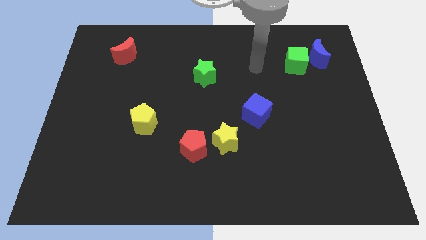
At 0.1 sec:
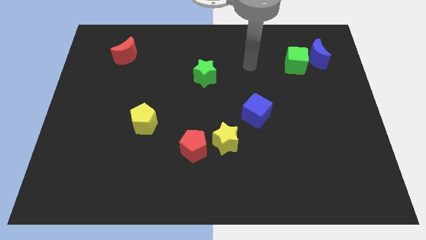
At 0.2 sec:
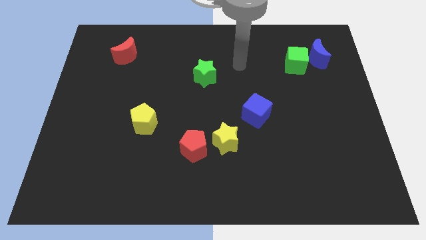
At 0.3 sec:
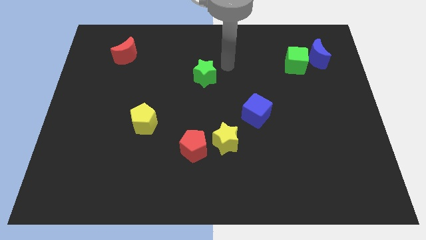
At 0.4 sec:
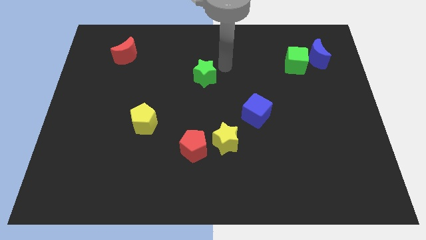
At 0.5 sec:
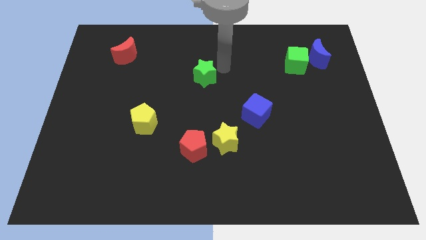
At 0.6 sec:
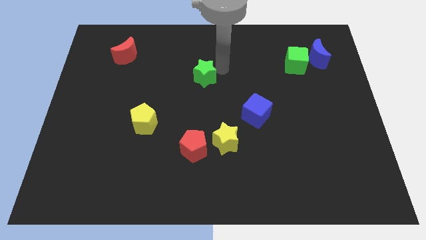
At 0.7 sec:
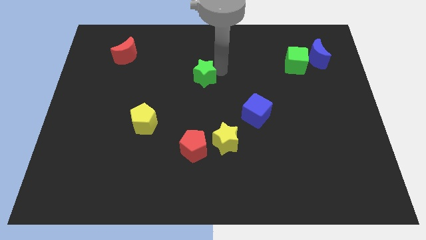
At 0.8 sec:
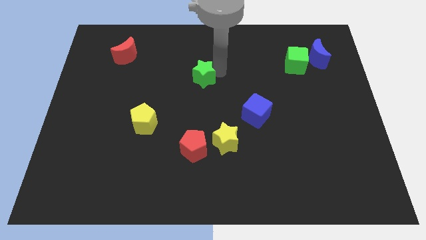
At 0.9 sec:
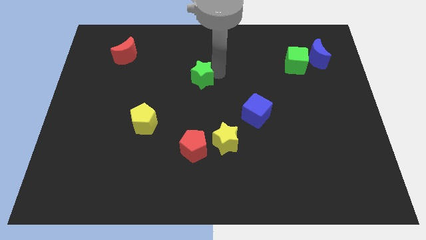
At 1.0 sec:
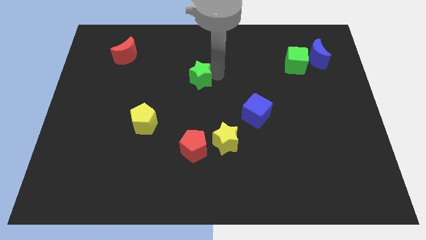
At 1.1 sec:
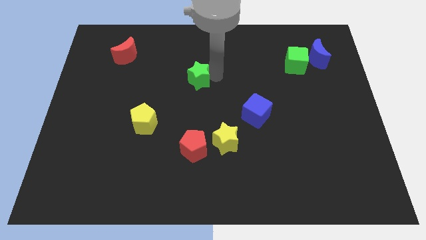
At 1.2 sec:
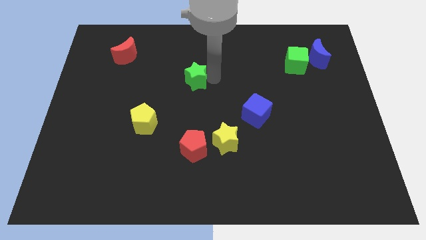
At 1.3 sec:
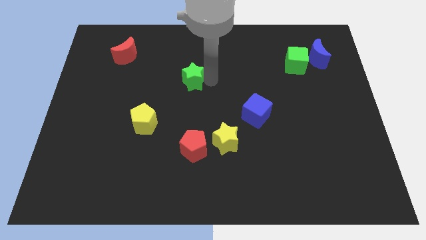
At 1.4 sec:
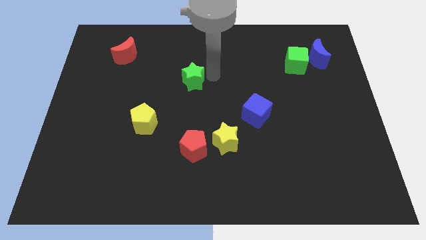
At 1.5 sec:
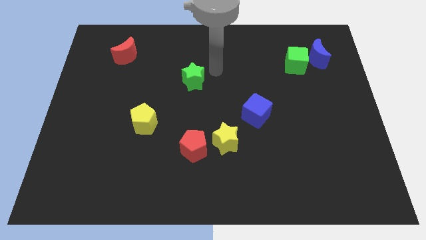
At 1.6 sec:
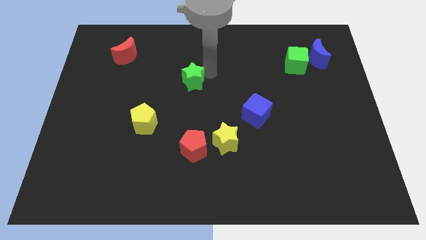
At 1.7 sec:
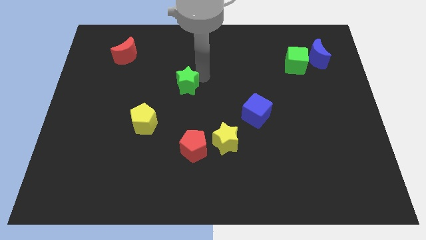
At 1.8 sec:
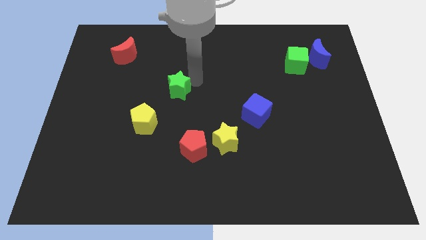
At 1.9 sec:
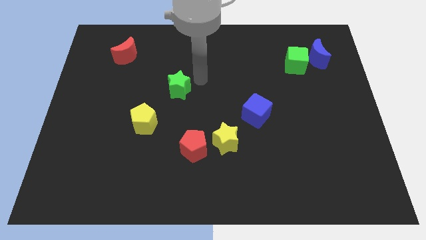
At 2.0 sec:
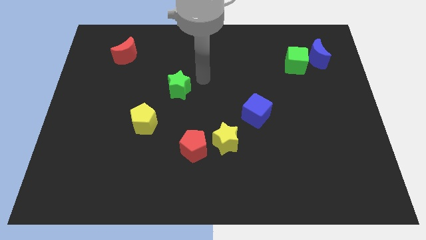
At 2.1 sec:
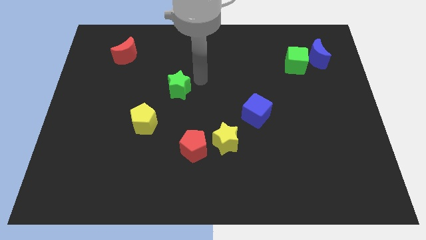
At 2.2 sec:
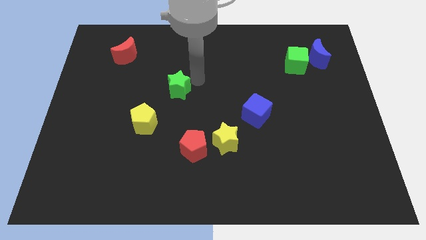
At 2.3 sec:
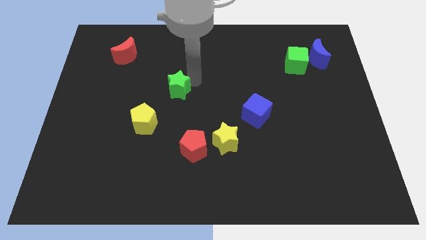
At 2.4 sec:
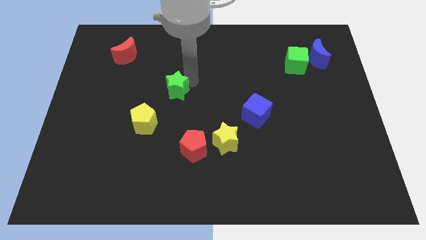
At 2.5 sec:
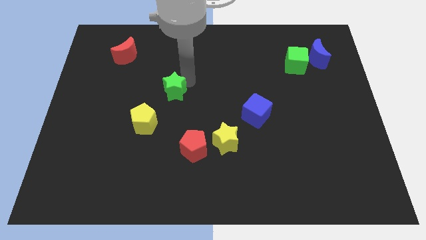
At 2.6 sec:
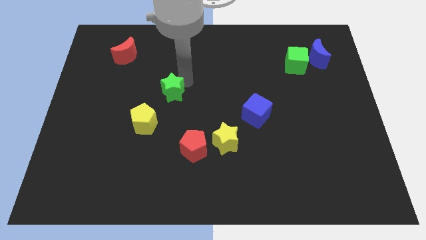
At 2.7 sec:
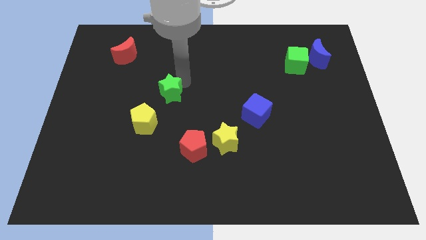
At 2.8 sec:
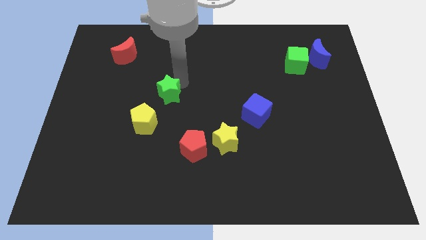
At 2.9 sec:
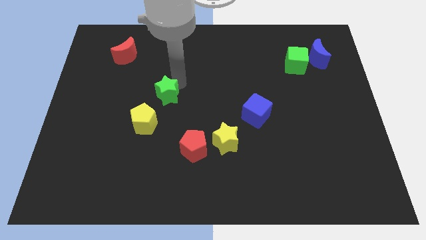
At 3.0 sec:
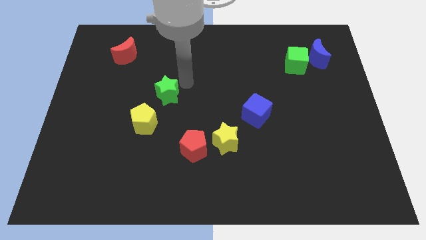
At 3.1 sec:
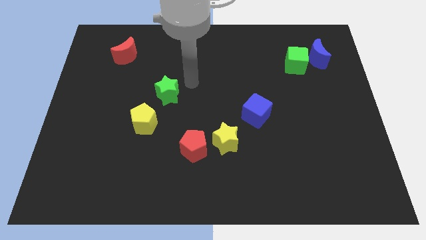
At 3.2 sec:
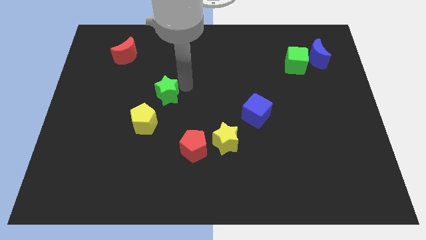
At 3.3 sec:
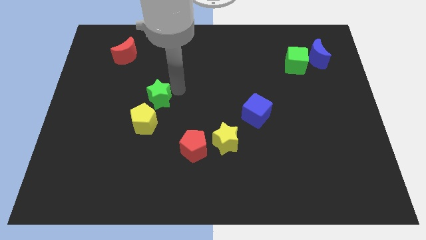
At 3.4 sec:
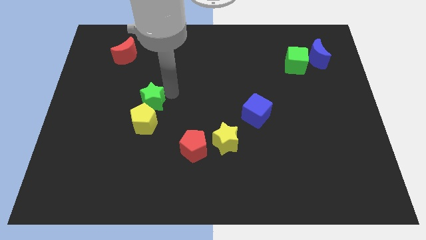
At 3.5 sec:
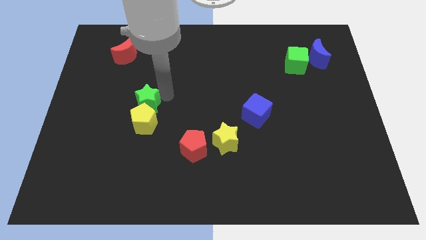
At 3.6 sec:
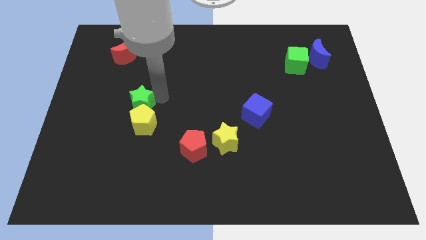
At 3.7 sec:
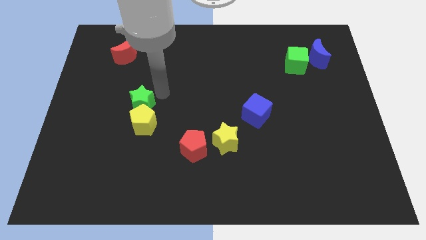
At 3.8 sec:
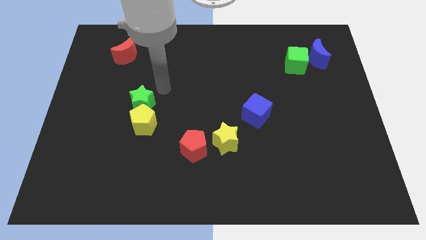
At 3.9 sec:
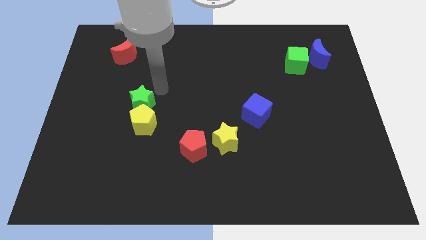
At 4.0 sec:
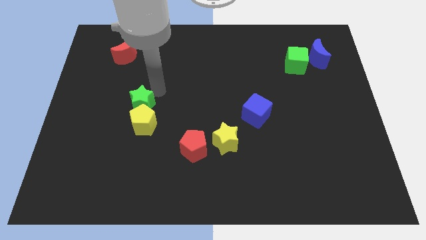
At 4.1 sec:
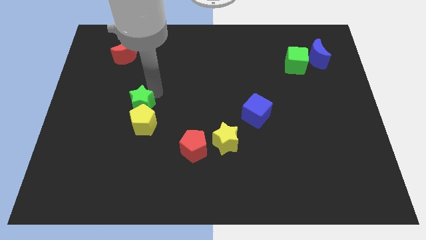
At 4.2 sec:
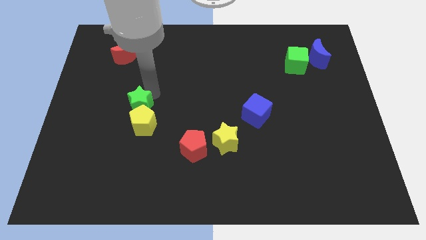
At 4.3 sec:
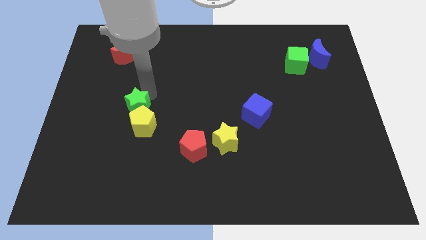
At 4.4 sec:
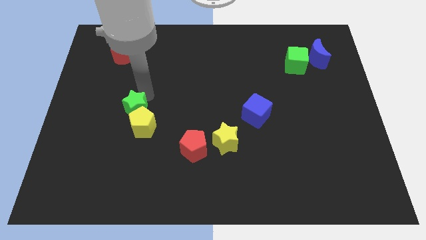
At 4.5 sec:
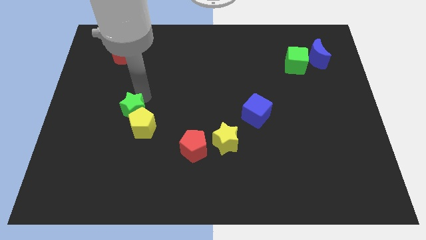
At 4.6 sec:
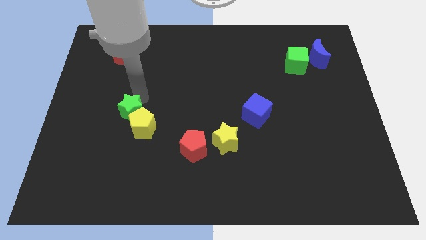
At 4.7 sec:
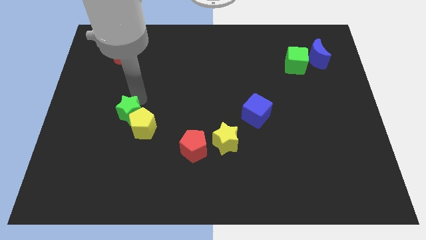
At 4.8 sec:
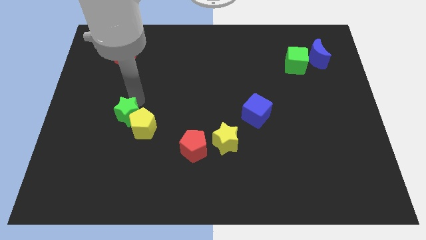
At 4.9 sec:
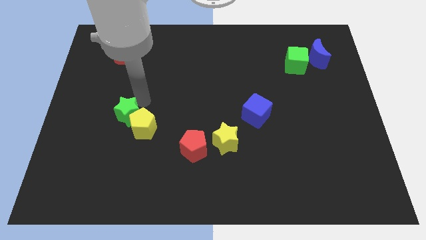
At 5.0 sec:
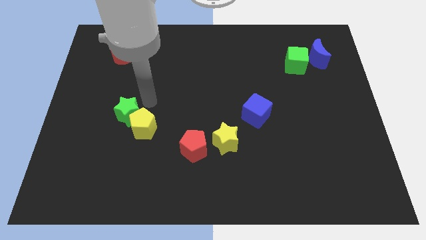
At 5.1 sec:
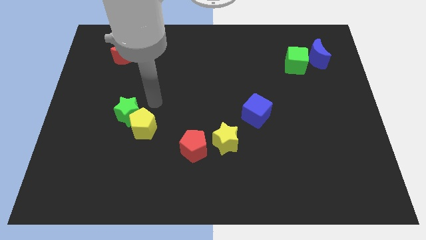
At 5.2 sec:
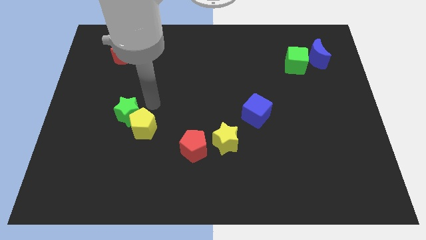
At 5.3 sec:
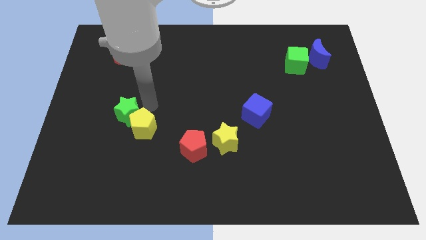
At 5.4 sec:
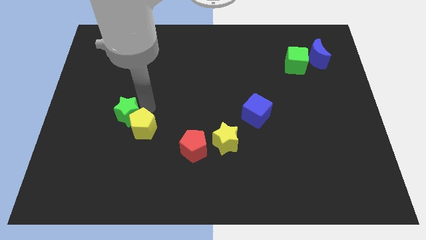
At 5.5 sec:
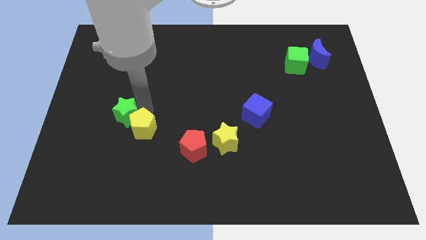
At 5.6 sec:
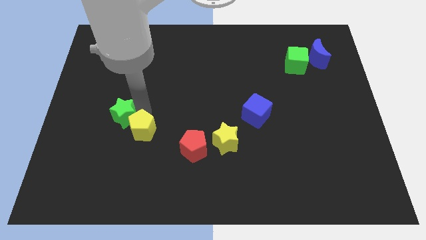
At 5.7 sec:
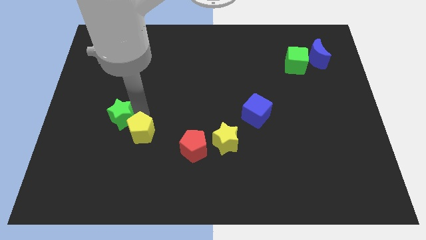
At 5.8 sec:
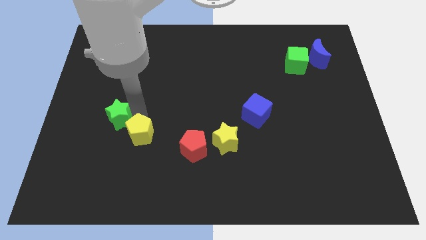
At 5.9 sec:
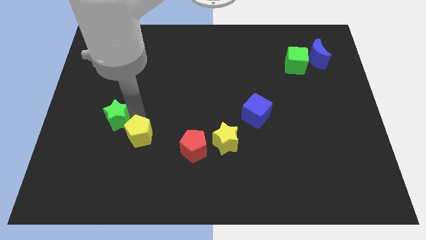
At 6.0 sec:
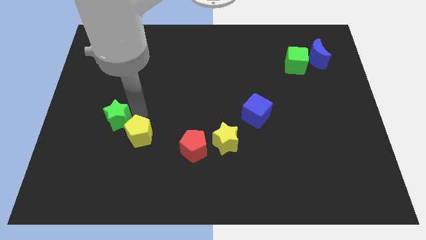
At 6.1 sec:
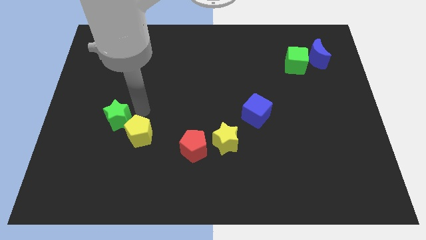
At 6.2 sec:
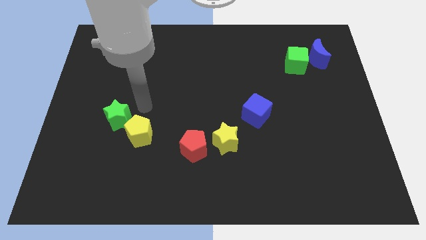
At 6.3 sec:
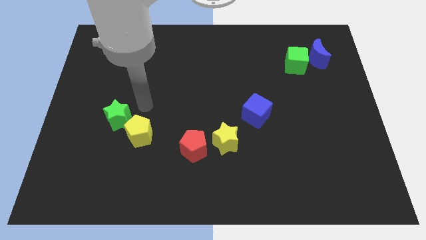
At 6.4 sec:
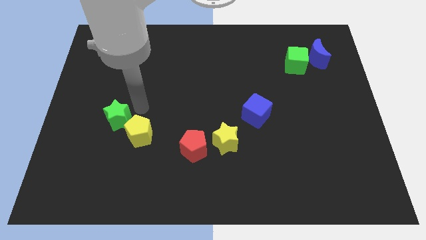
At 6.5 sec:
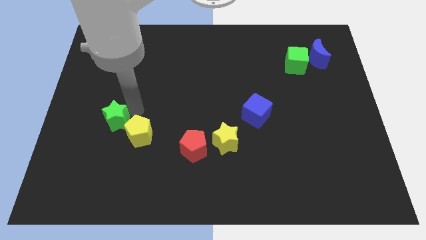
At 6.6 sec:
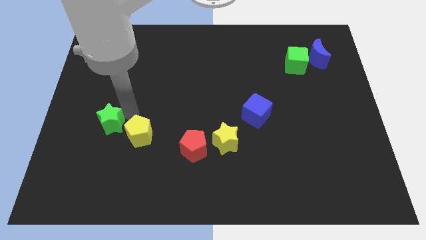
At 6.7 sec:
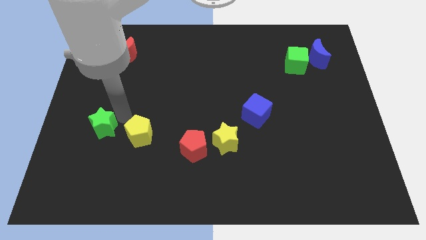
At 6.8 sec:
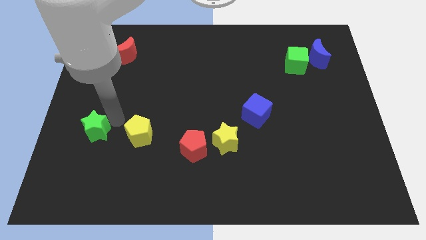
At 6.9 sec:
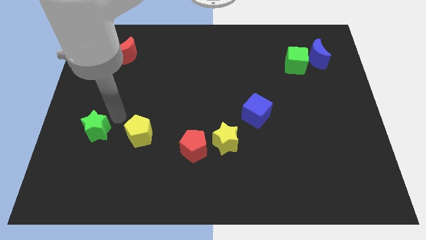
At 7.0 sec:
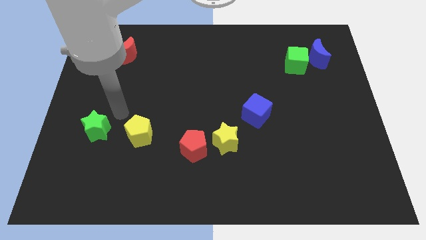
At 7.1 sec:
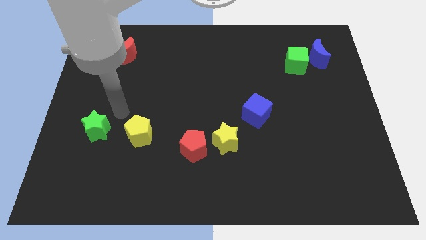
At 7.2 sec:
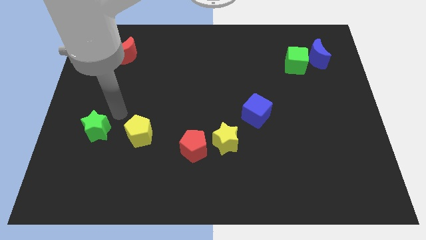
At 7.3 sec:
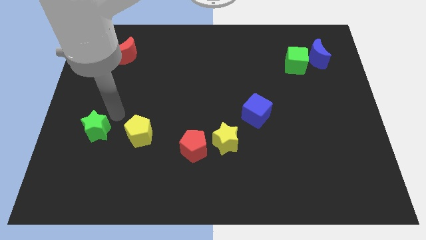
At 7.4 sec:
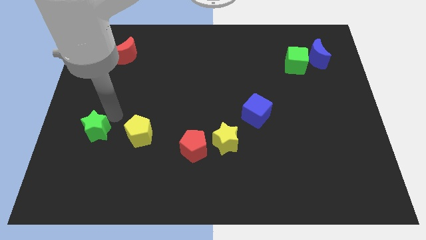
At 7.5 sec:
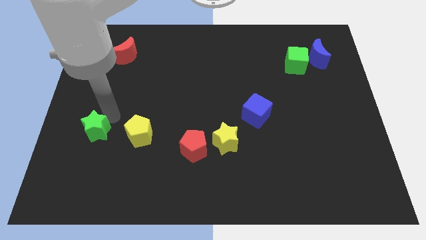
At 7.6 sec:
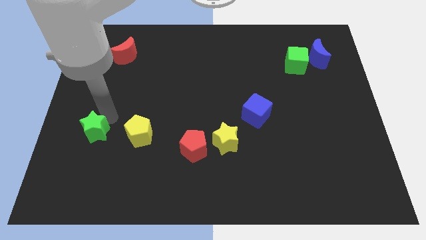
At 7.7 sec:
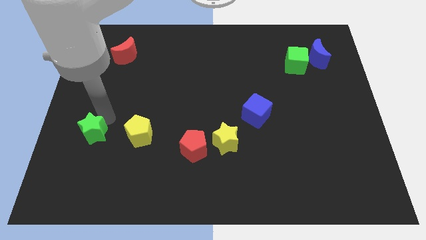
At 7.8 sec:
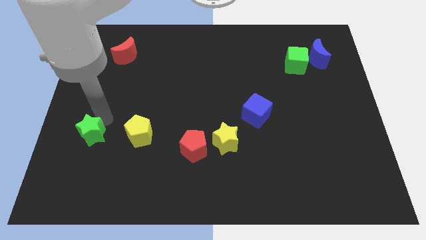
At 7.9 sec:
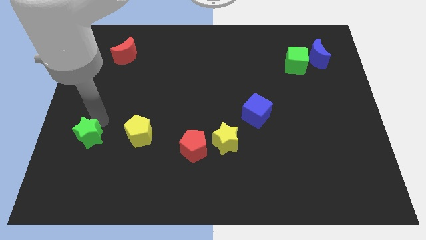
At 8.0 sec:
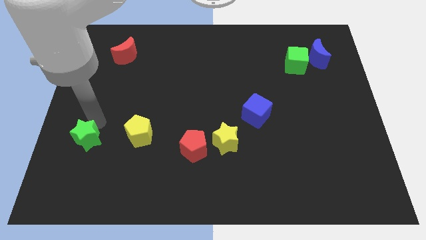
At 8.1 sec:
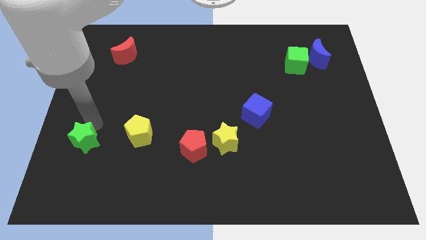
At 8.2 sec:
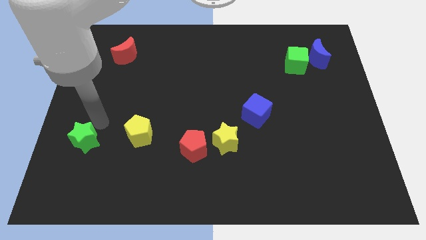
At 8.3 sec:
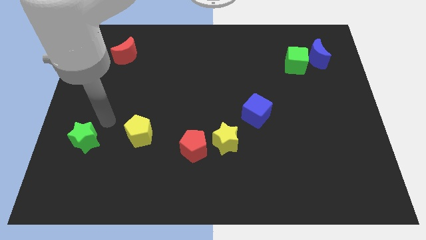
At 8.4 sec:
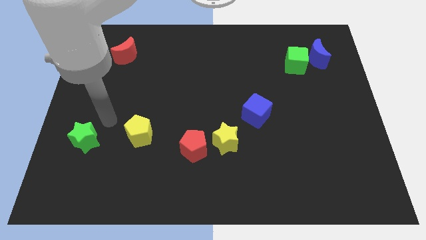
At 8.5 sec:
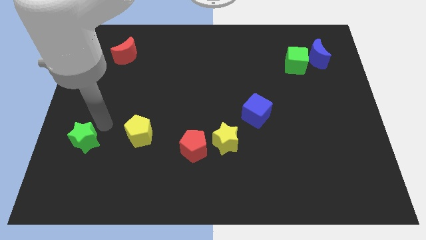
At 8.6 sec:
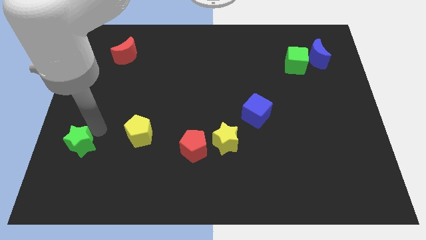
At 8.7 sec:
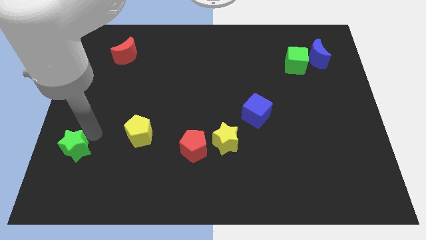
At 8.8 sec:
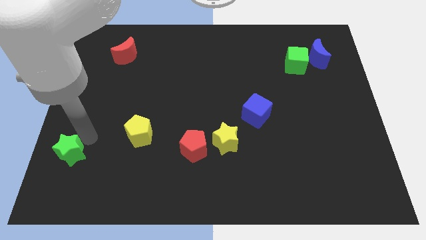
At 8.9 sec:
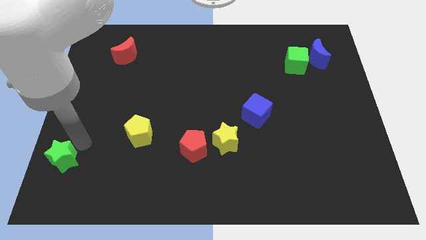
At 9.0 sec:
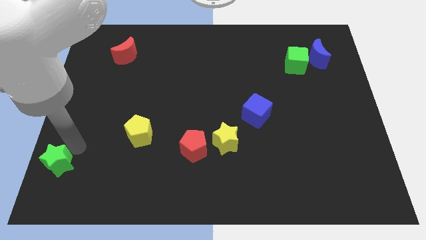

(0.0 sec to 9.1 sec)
slide the green star to the bottom left corner
